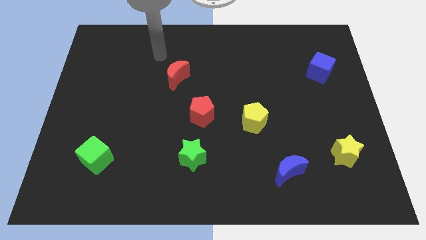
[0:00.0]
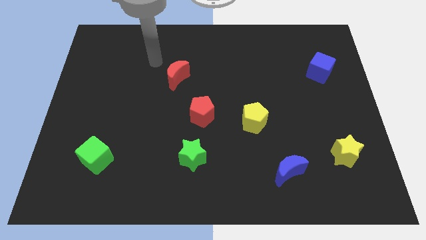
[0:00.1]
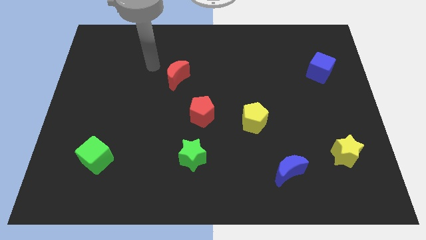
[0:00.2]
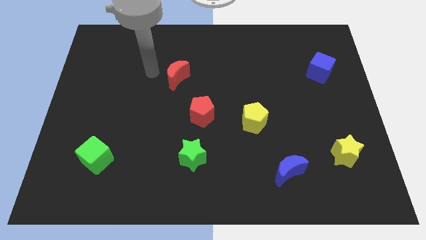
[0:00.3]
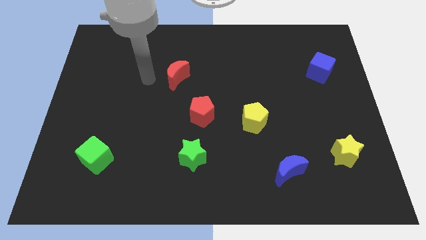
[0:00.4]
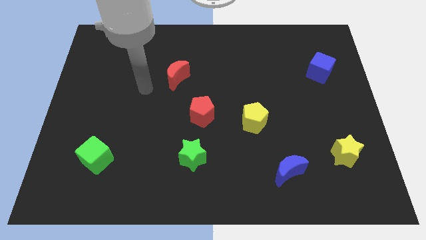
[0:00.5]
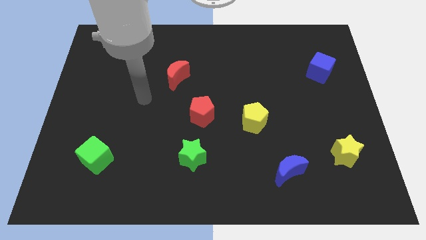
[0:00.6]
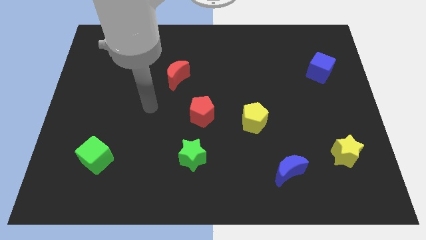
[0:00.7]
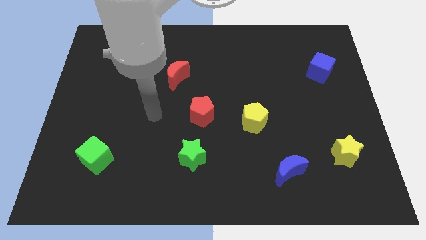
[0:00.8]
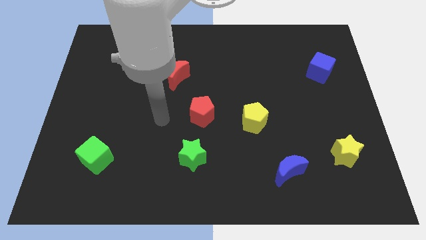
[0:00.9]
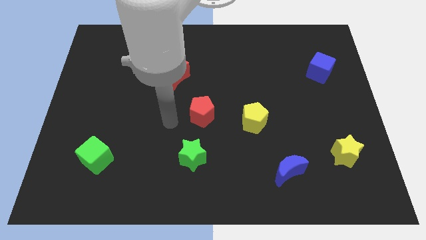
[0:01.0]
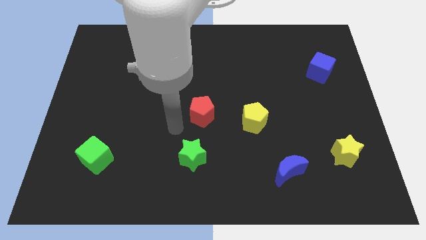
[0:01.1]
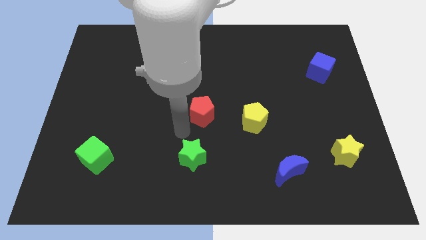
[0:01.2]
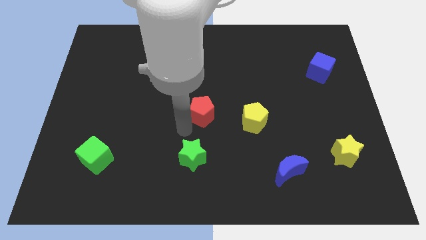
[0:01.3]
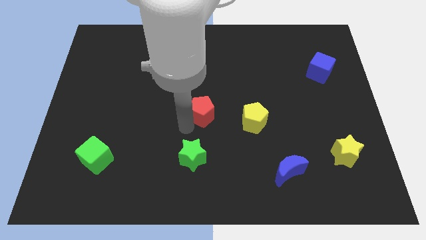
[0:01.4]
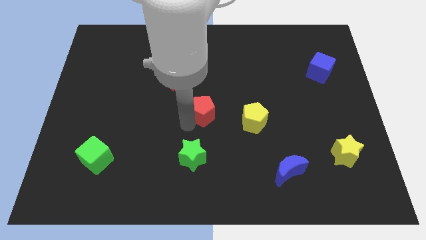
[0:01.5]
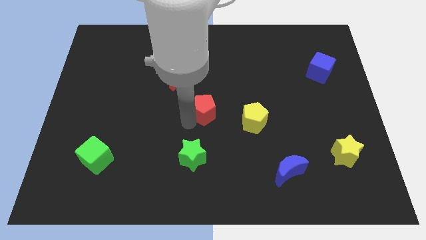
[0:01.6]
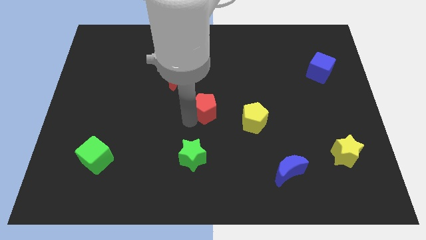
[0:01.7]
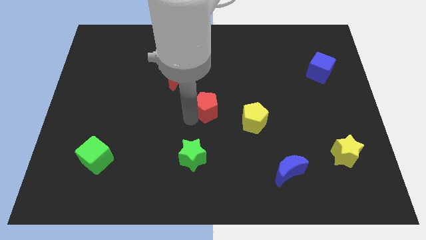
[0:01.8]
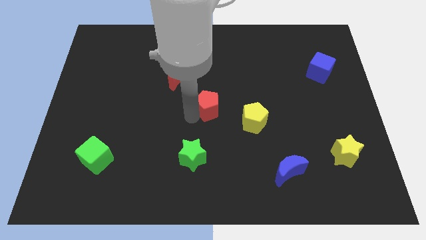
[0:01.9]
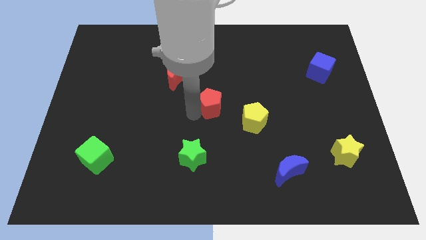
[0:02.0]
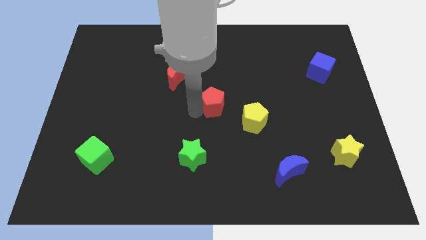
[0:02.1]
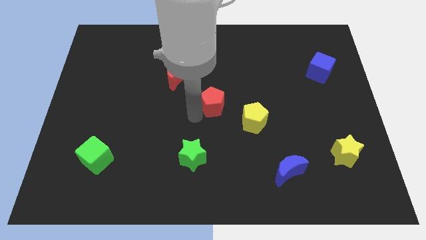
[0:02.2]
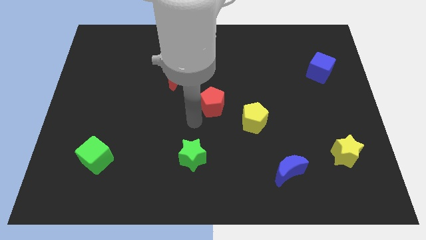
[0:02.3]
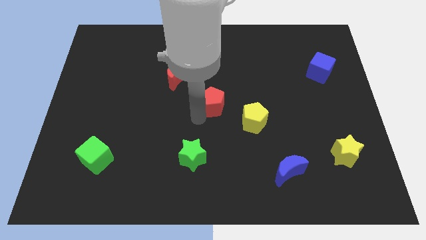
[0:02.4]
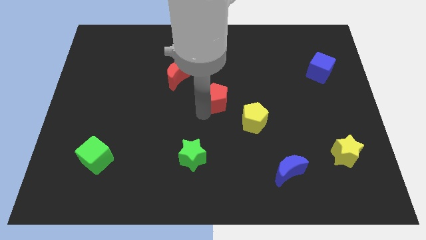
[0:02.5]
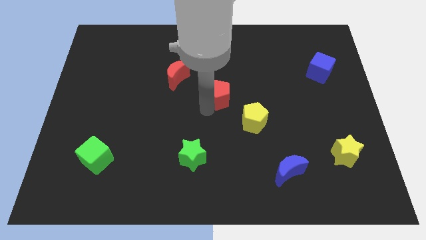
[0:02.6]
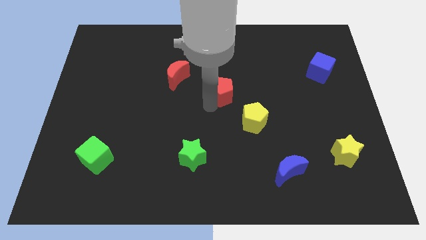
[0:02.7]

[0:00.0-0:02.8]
move the red pentagon a little bit upwards and right diagonally

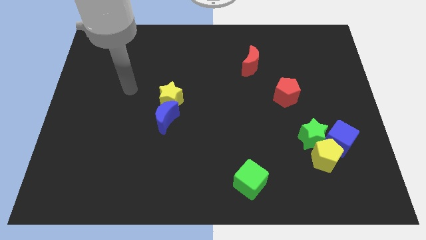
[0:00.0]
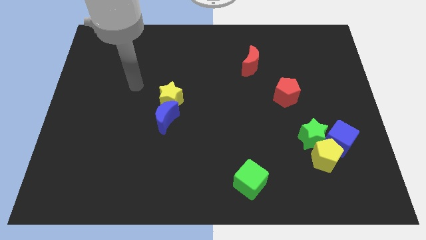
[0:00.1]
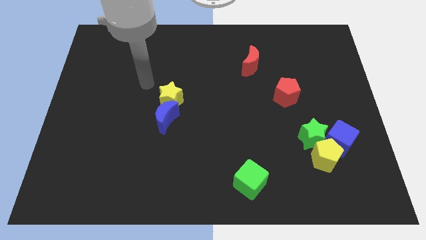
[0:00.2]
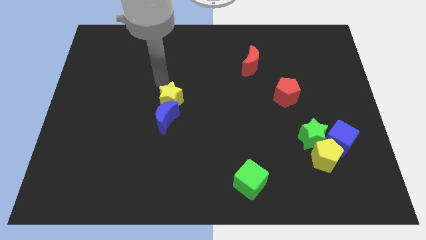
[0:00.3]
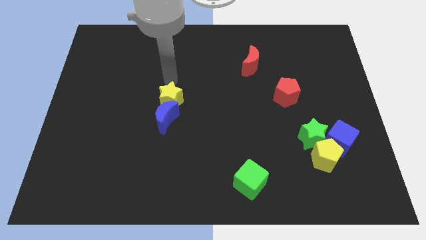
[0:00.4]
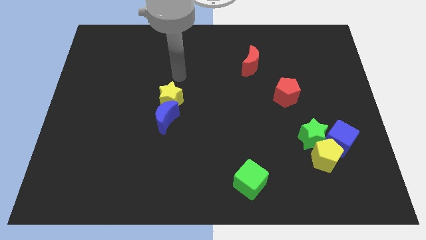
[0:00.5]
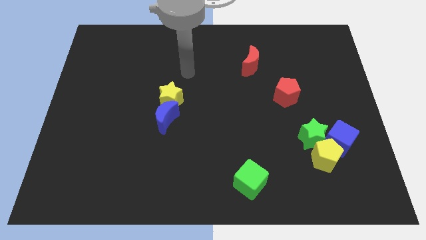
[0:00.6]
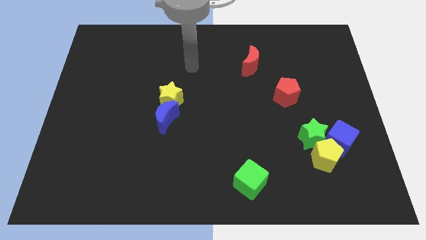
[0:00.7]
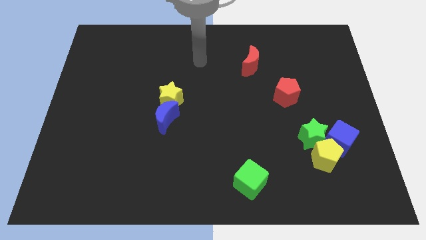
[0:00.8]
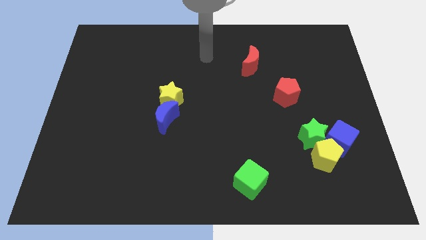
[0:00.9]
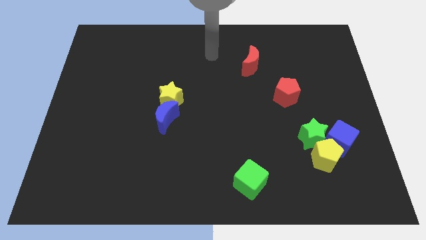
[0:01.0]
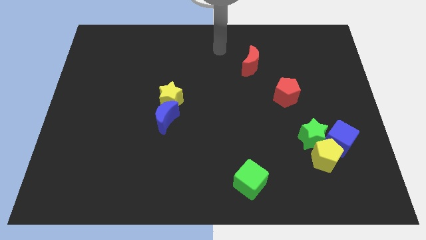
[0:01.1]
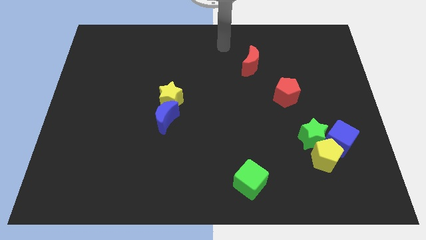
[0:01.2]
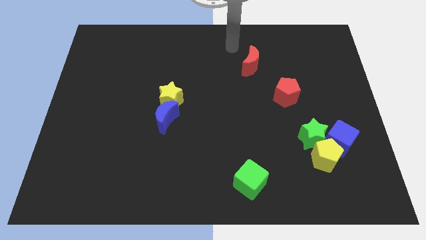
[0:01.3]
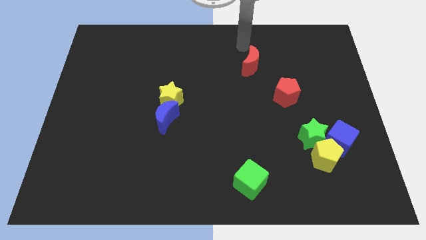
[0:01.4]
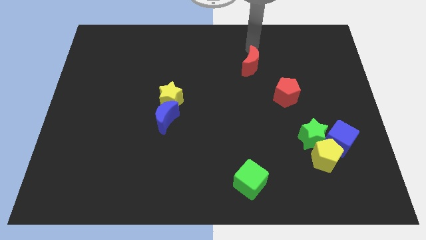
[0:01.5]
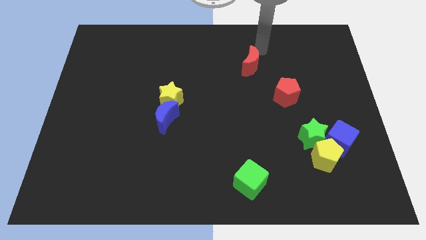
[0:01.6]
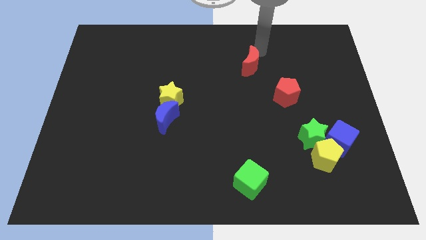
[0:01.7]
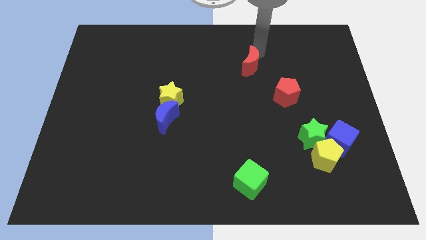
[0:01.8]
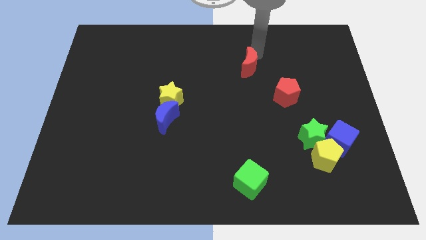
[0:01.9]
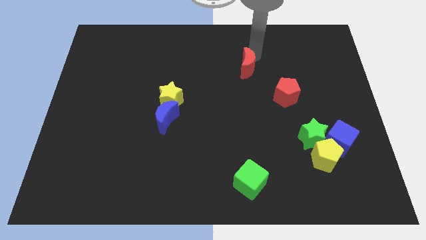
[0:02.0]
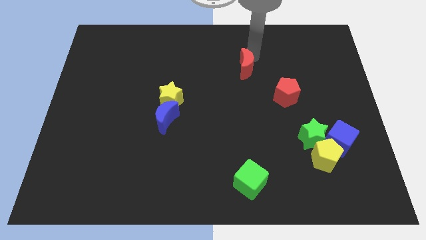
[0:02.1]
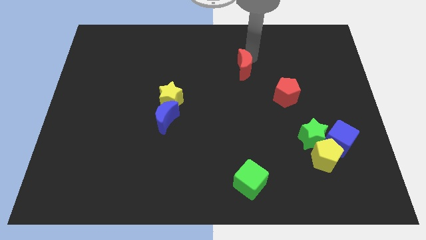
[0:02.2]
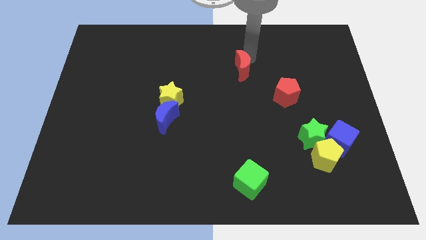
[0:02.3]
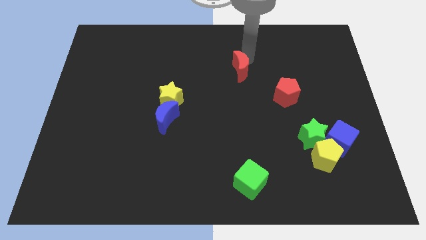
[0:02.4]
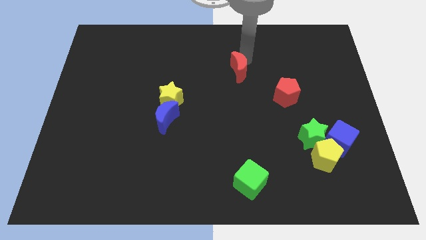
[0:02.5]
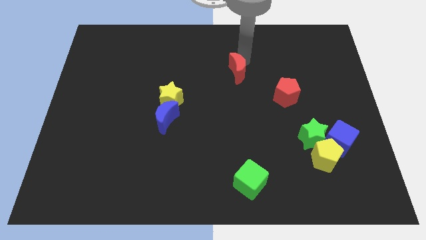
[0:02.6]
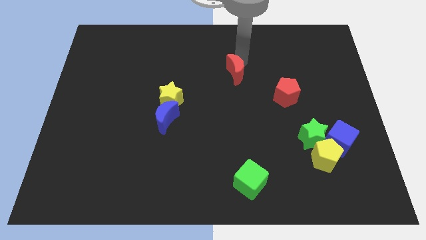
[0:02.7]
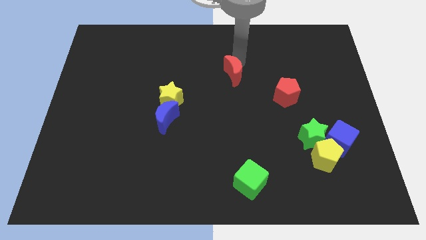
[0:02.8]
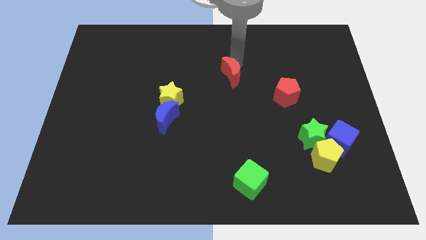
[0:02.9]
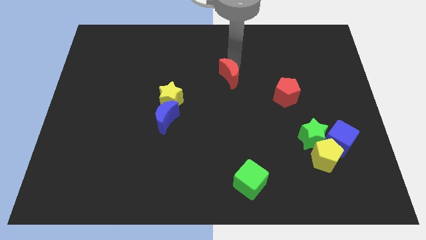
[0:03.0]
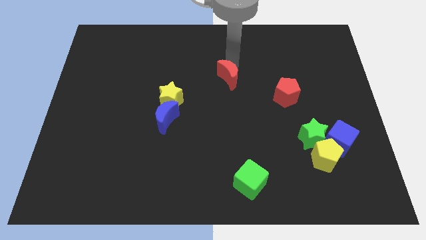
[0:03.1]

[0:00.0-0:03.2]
slide the red moon a bit downwards and to the left diagonally

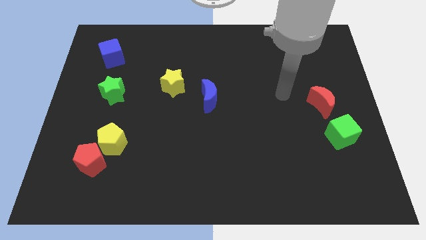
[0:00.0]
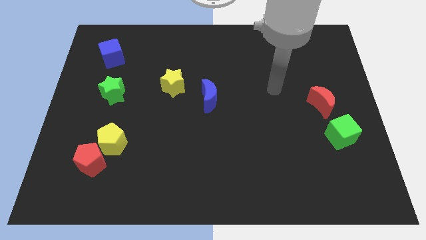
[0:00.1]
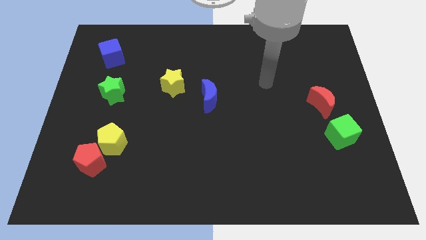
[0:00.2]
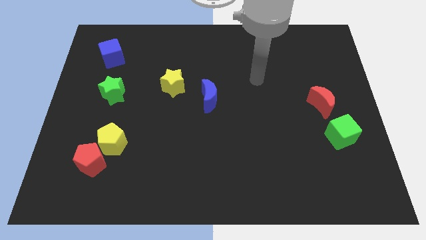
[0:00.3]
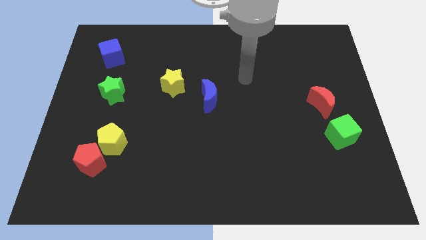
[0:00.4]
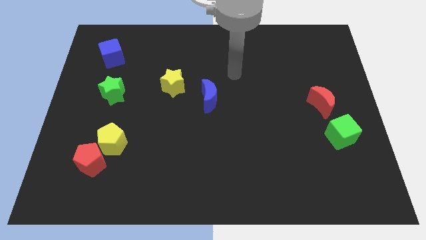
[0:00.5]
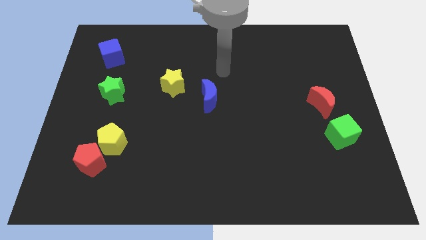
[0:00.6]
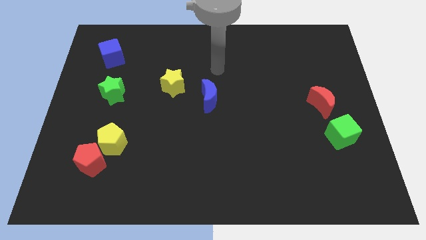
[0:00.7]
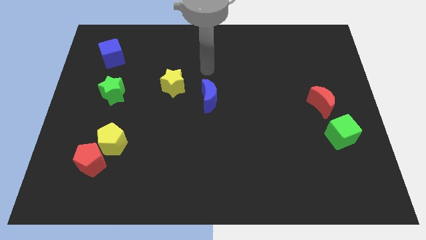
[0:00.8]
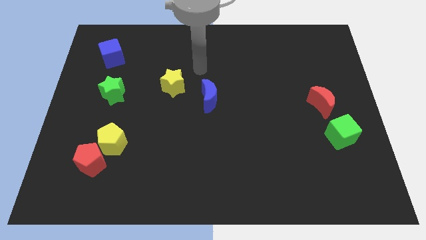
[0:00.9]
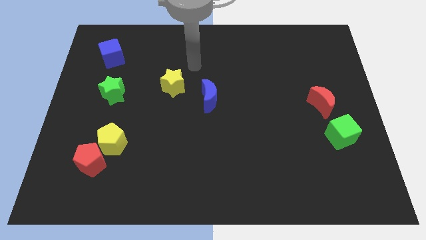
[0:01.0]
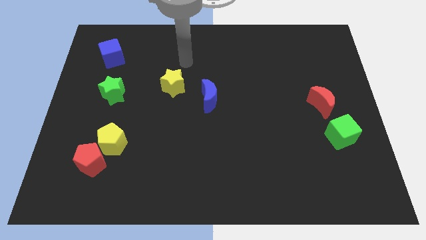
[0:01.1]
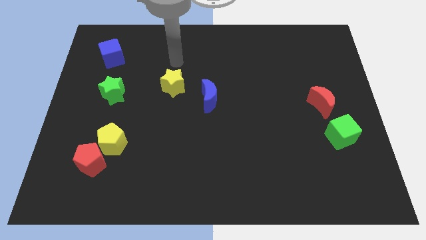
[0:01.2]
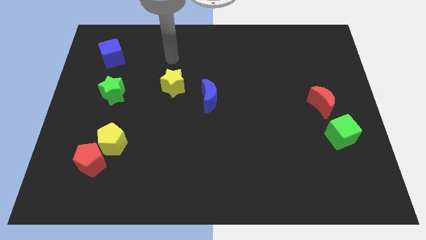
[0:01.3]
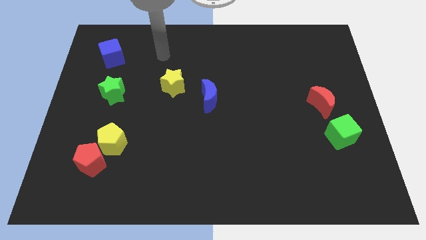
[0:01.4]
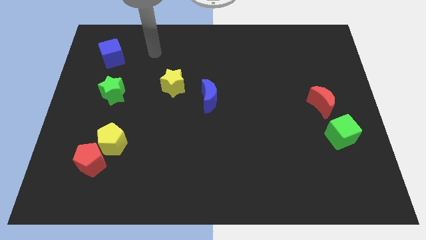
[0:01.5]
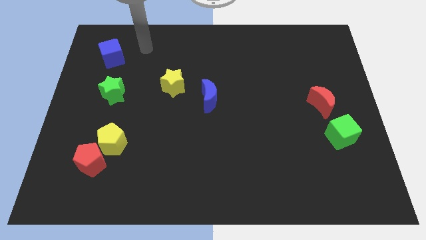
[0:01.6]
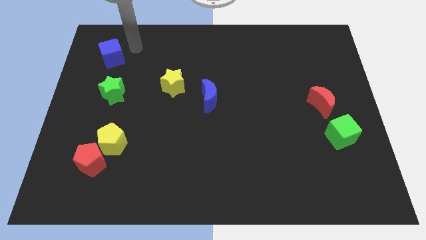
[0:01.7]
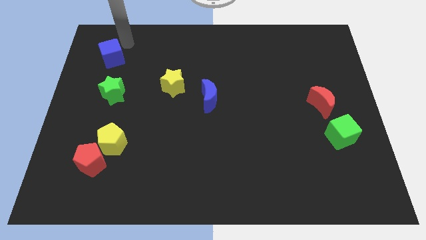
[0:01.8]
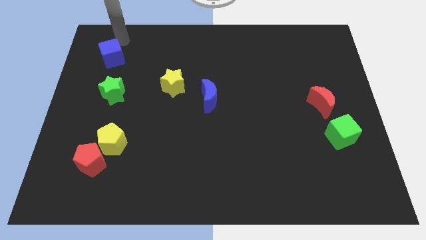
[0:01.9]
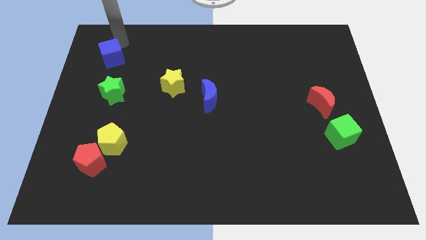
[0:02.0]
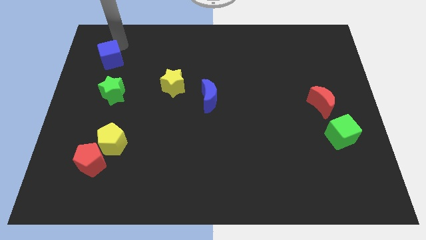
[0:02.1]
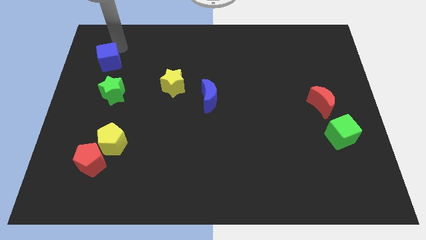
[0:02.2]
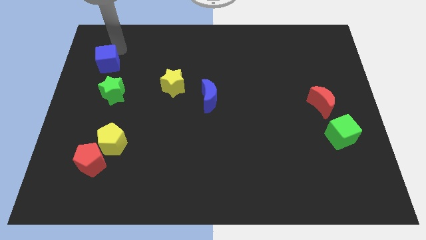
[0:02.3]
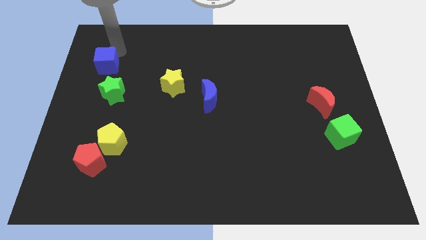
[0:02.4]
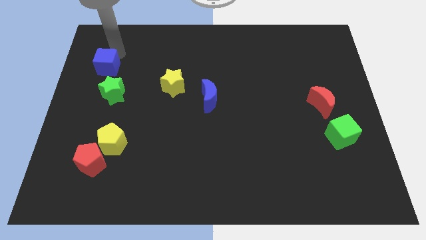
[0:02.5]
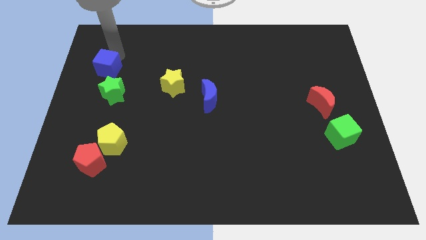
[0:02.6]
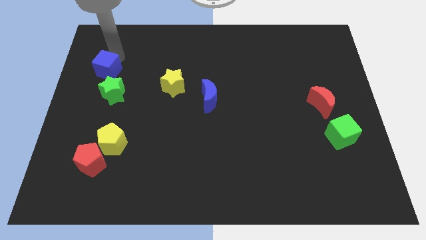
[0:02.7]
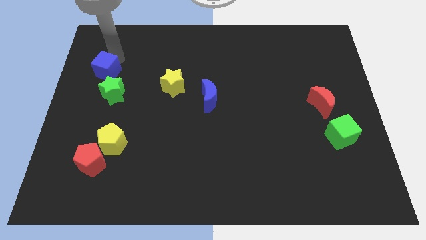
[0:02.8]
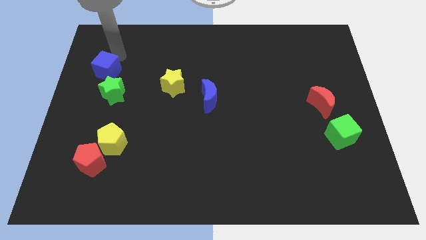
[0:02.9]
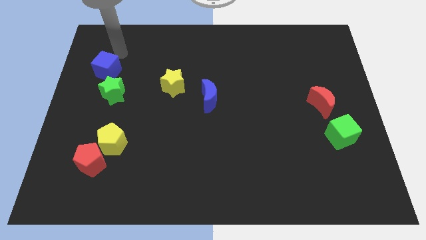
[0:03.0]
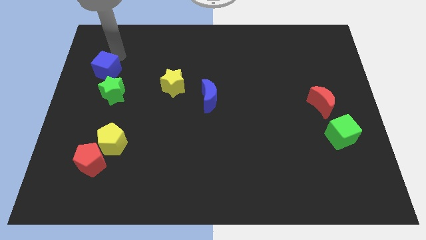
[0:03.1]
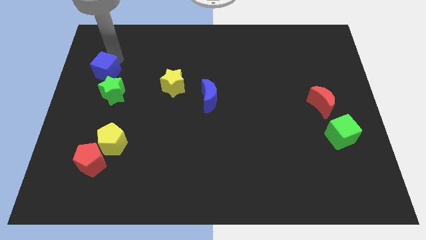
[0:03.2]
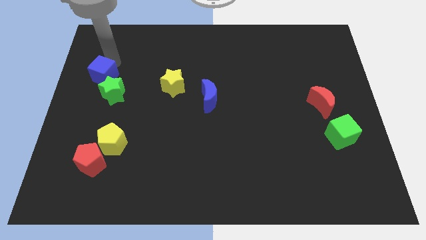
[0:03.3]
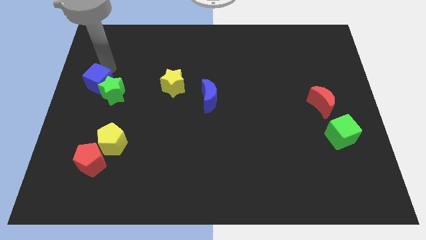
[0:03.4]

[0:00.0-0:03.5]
move the blue cube somewhat downwards
